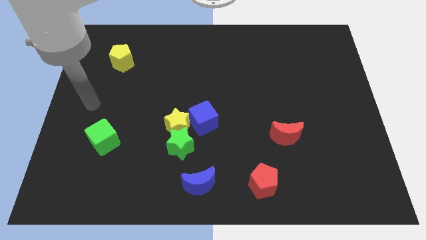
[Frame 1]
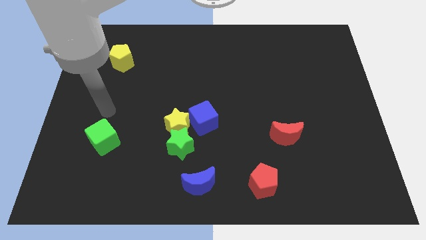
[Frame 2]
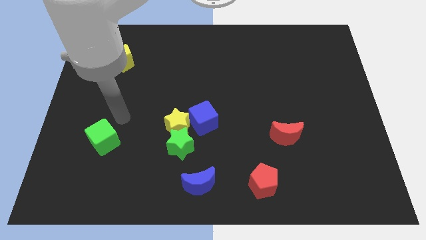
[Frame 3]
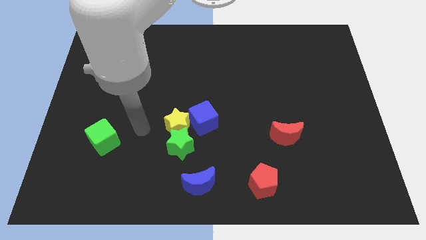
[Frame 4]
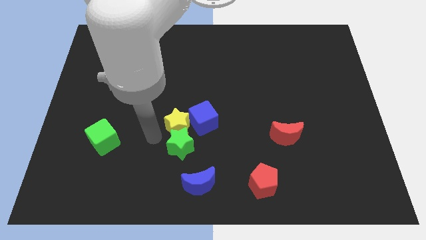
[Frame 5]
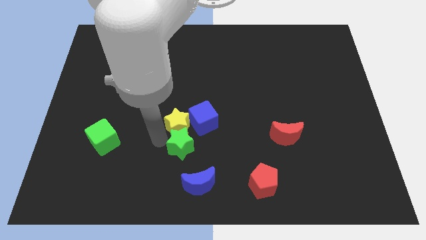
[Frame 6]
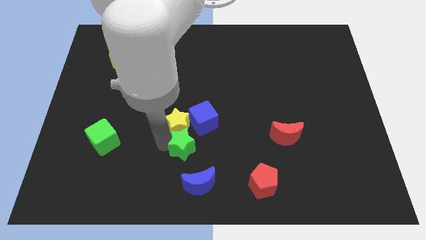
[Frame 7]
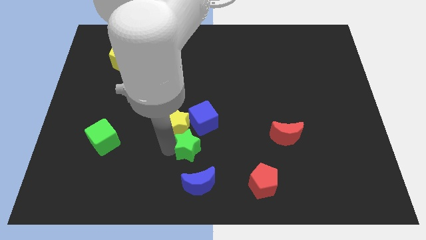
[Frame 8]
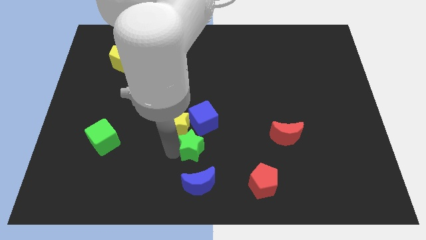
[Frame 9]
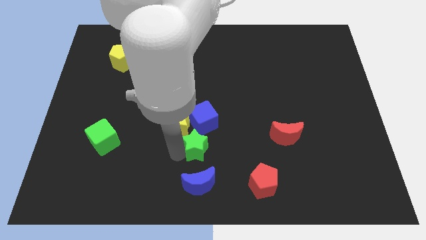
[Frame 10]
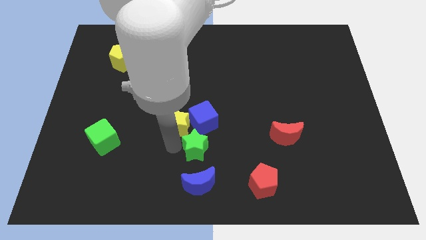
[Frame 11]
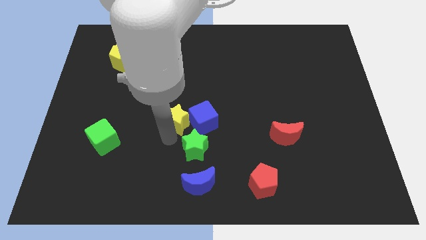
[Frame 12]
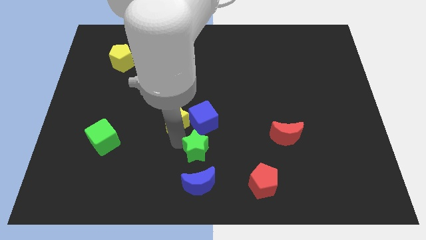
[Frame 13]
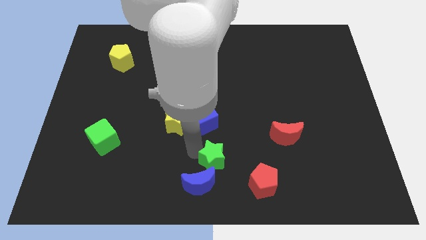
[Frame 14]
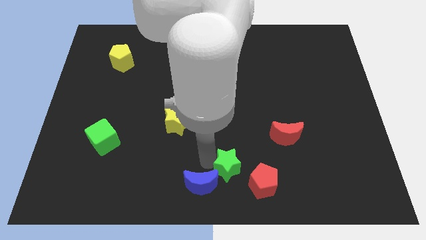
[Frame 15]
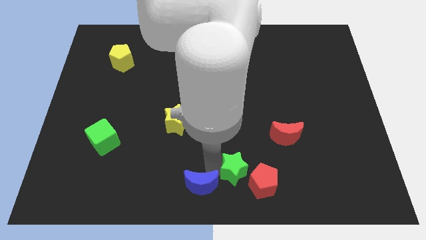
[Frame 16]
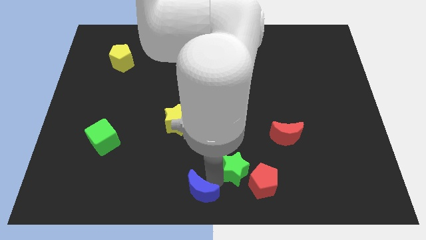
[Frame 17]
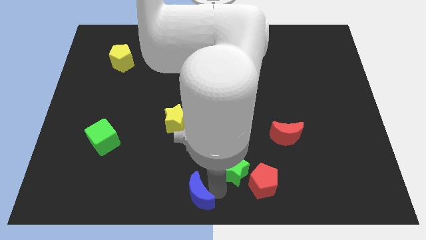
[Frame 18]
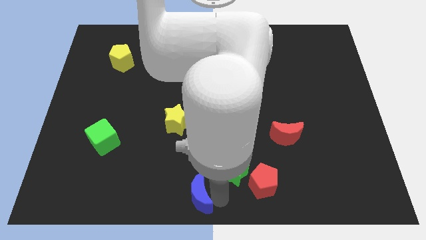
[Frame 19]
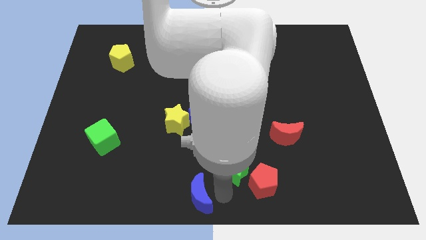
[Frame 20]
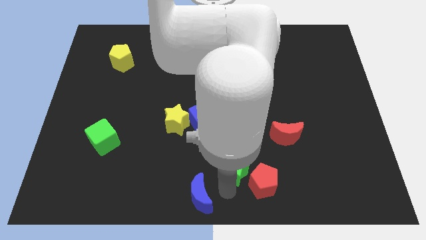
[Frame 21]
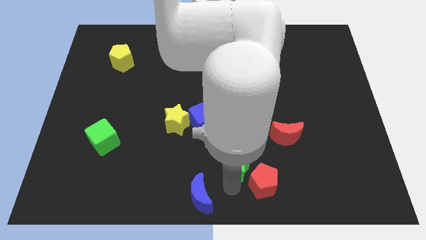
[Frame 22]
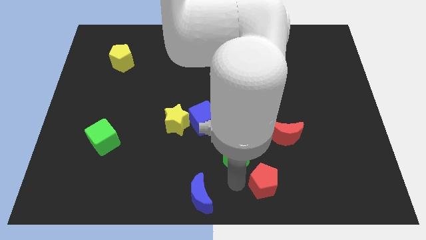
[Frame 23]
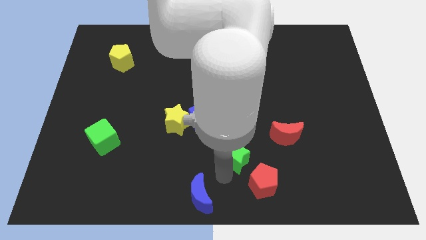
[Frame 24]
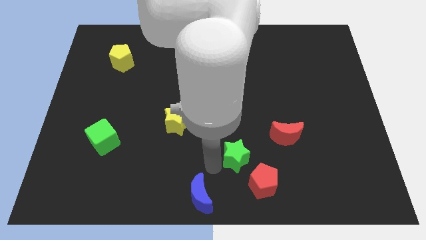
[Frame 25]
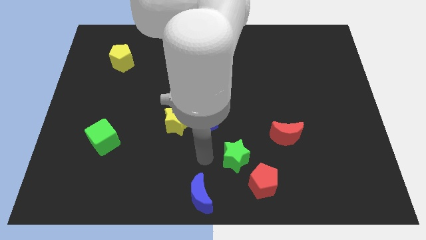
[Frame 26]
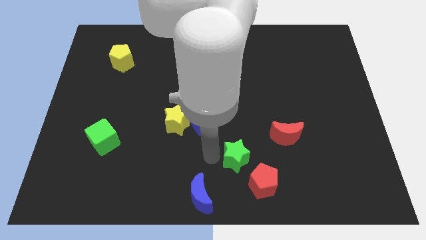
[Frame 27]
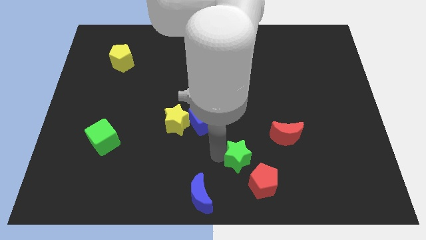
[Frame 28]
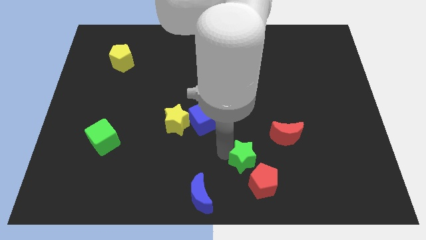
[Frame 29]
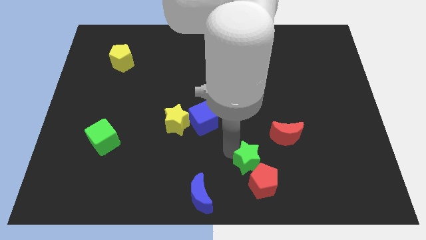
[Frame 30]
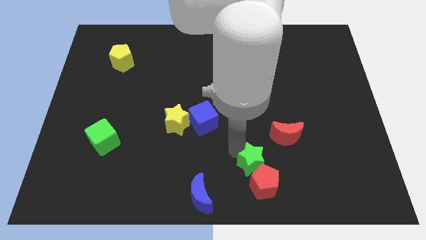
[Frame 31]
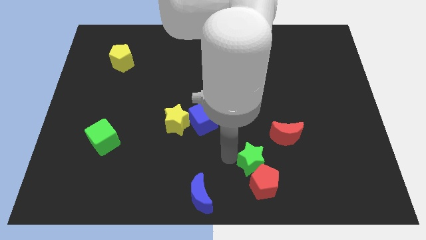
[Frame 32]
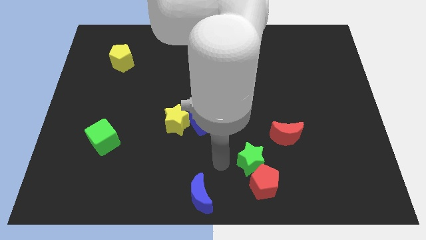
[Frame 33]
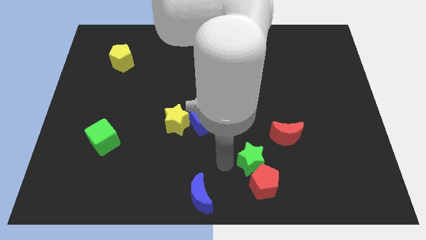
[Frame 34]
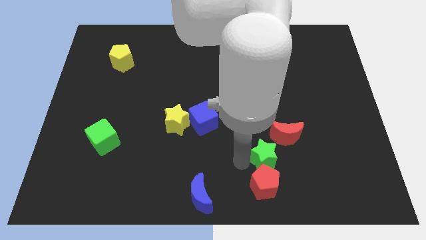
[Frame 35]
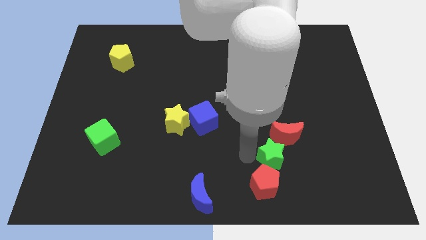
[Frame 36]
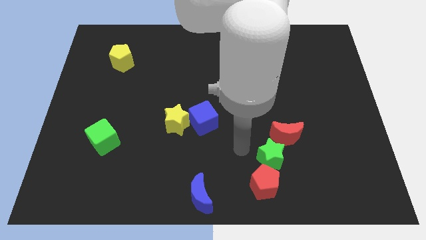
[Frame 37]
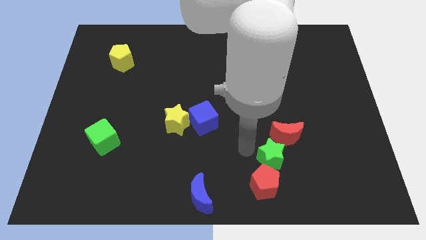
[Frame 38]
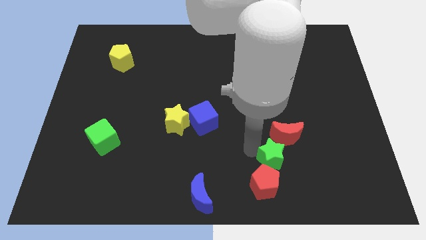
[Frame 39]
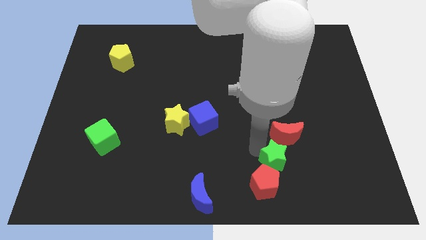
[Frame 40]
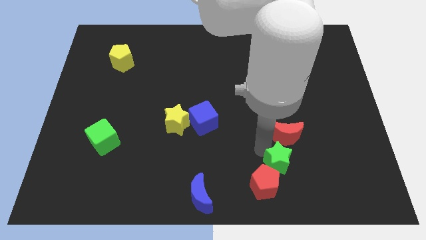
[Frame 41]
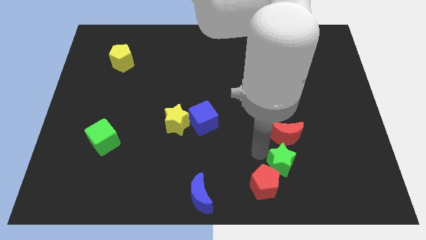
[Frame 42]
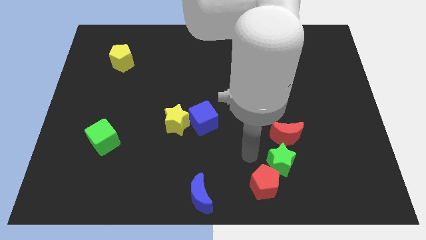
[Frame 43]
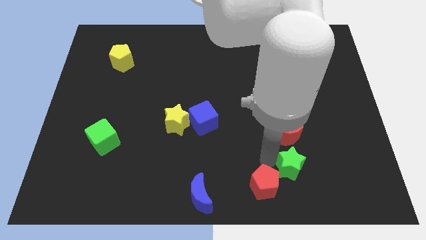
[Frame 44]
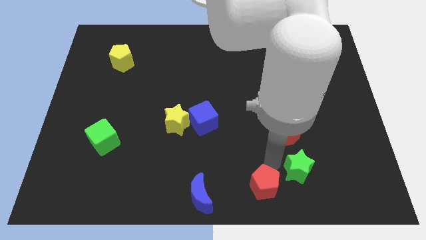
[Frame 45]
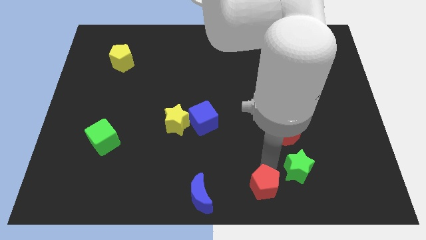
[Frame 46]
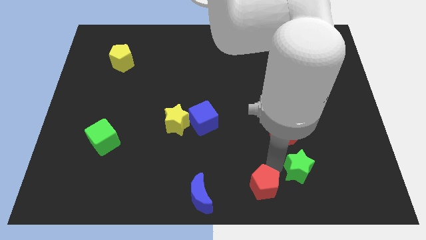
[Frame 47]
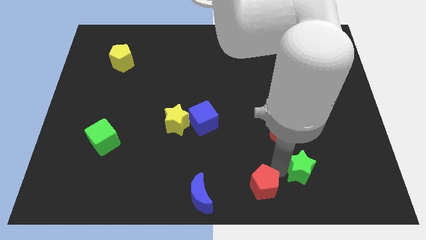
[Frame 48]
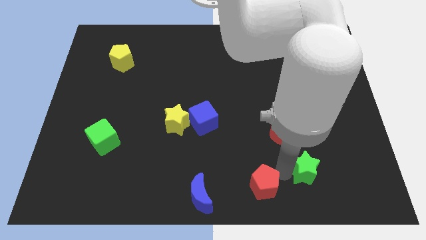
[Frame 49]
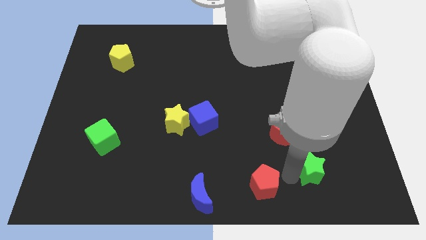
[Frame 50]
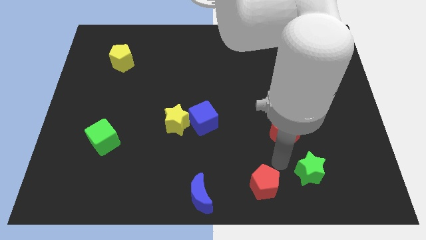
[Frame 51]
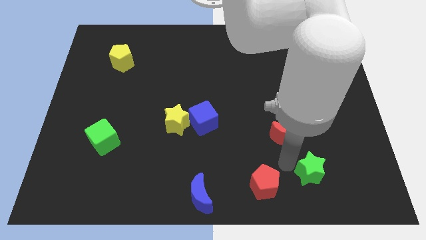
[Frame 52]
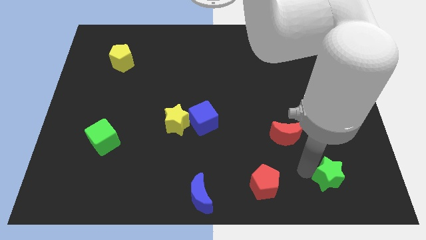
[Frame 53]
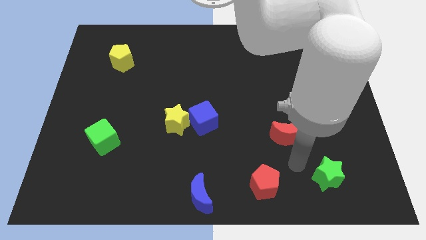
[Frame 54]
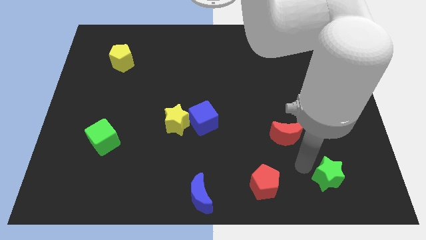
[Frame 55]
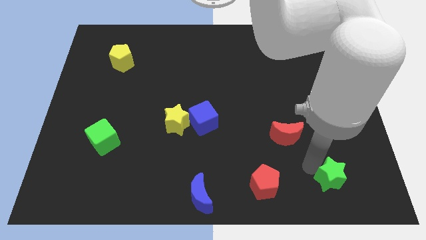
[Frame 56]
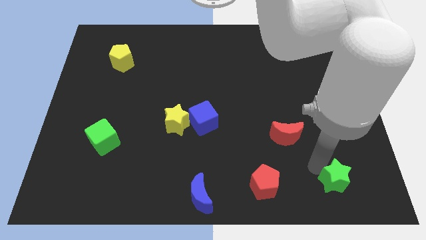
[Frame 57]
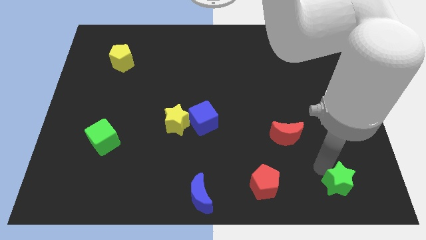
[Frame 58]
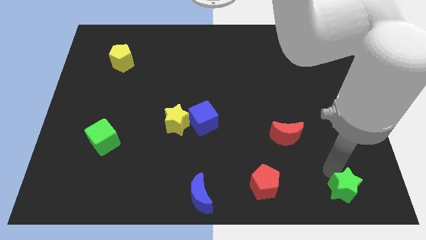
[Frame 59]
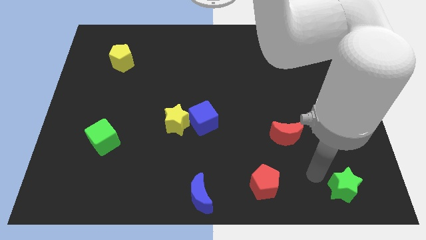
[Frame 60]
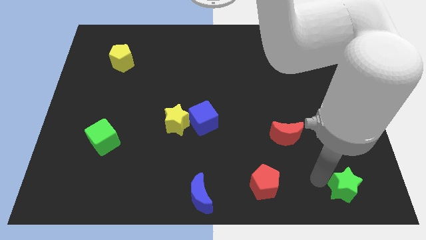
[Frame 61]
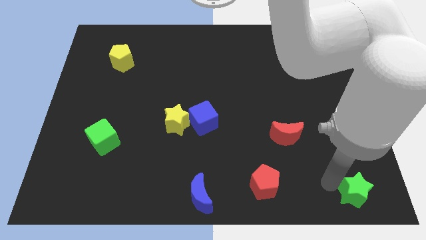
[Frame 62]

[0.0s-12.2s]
move the green star to the bottom right corner

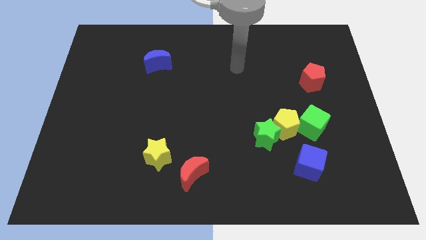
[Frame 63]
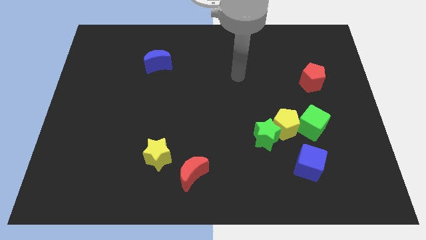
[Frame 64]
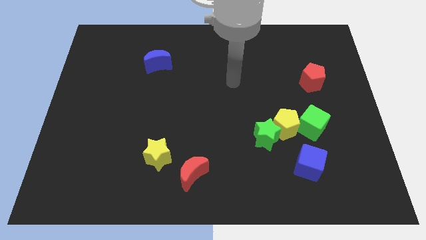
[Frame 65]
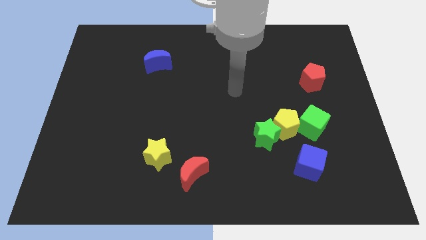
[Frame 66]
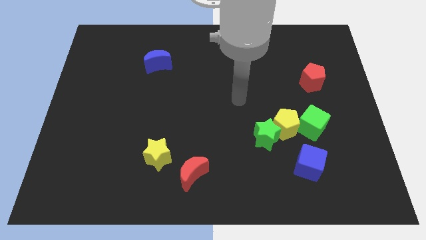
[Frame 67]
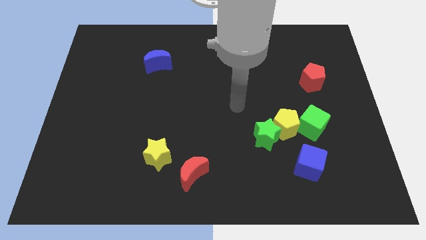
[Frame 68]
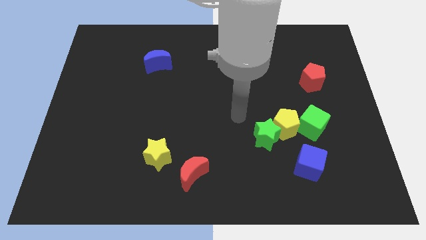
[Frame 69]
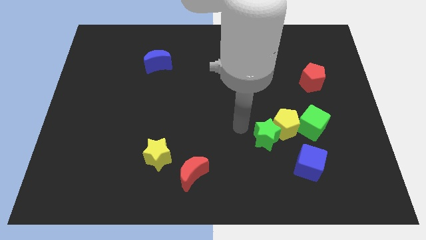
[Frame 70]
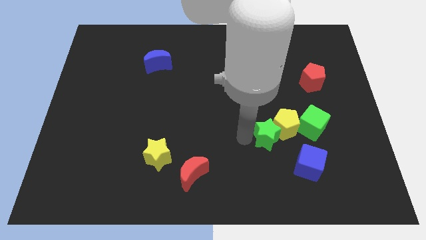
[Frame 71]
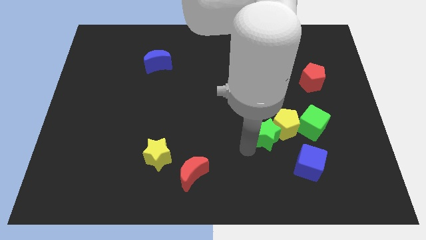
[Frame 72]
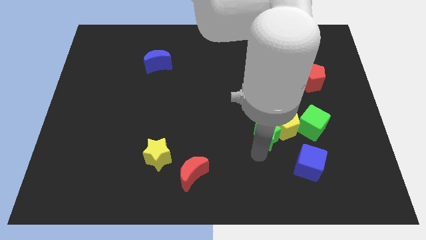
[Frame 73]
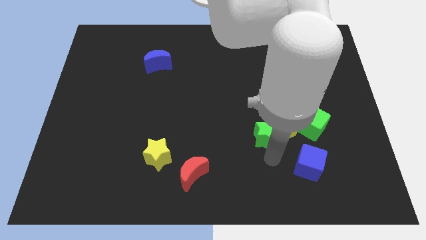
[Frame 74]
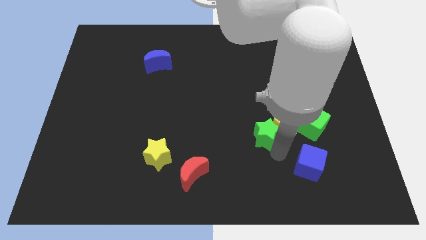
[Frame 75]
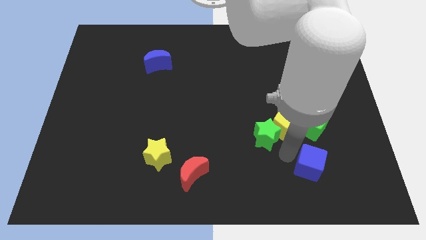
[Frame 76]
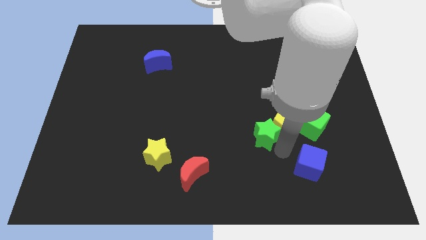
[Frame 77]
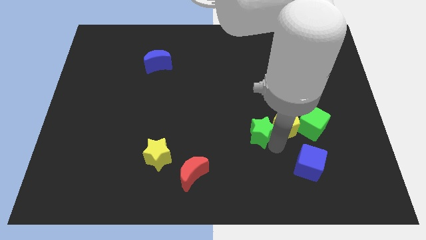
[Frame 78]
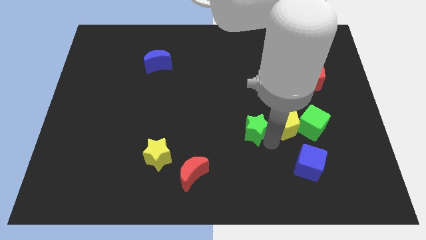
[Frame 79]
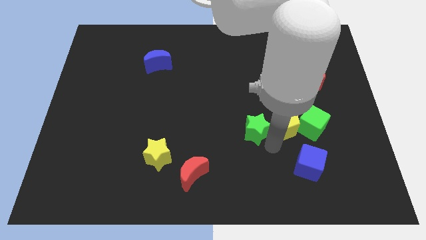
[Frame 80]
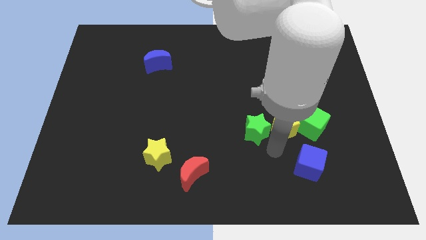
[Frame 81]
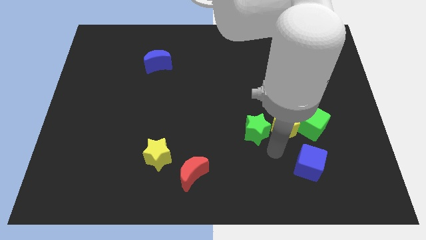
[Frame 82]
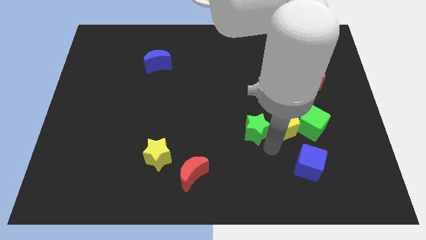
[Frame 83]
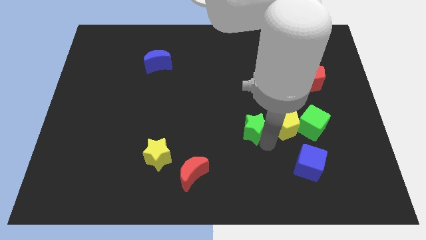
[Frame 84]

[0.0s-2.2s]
move the green star to the middle of the board
